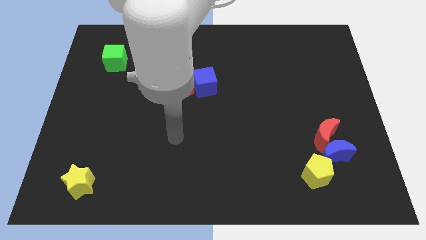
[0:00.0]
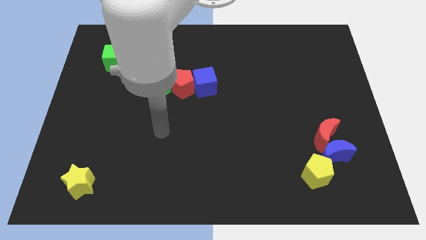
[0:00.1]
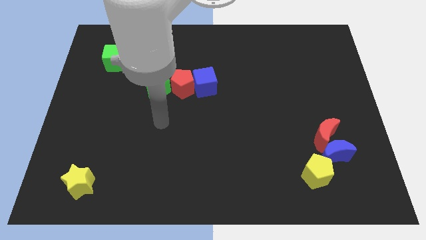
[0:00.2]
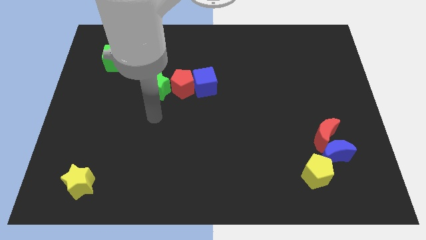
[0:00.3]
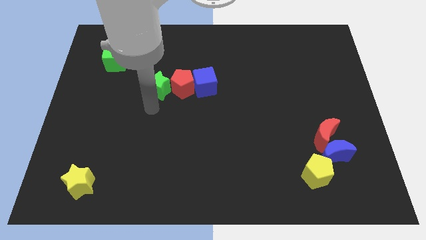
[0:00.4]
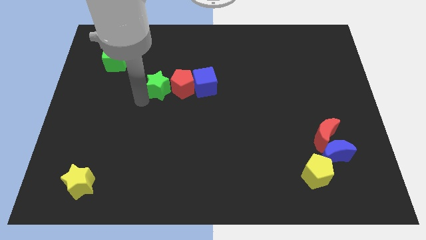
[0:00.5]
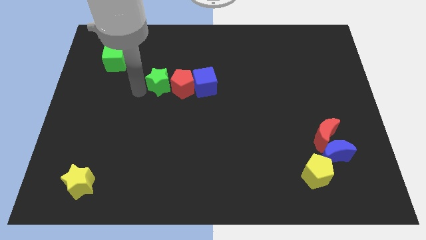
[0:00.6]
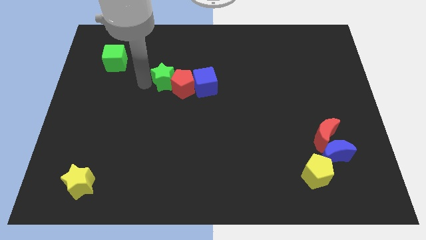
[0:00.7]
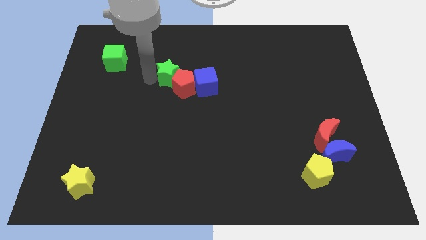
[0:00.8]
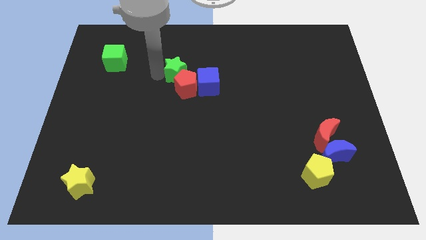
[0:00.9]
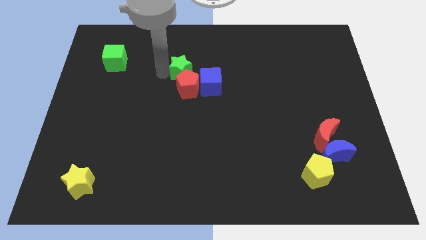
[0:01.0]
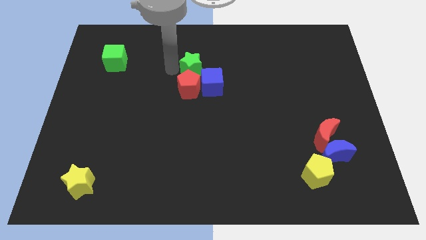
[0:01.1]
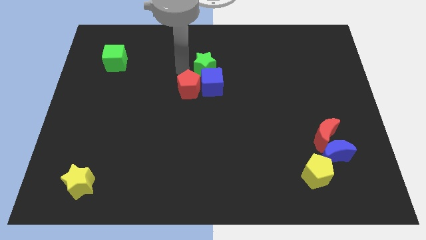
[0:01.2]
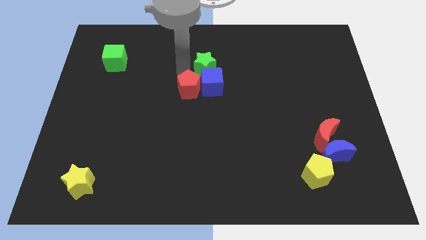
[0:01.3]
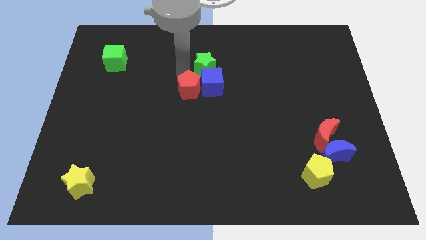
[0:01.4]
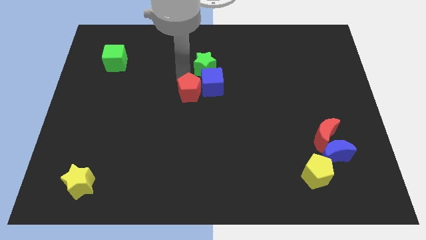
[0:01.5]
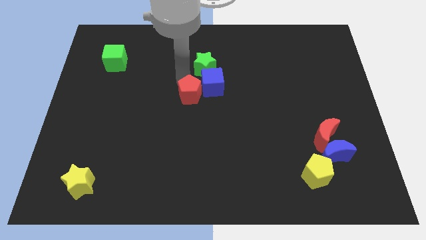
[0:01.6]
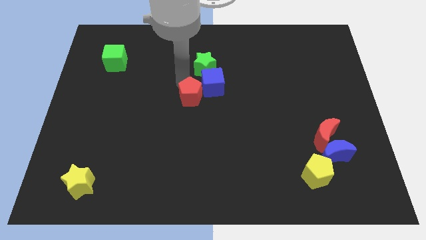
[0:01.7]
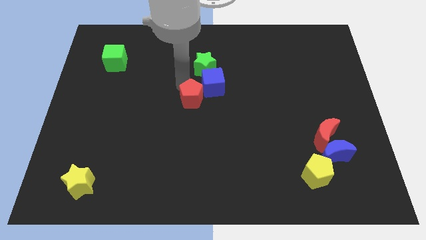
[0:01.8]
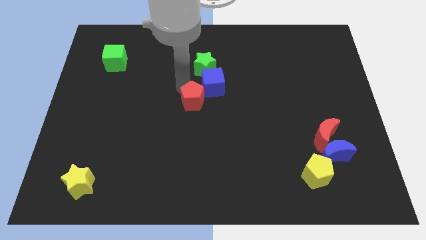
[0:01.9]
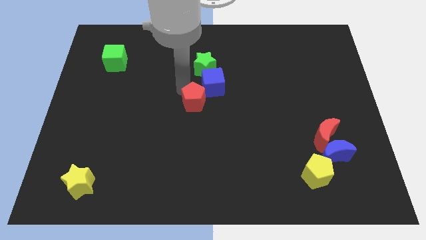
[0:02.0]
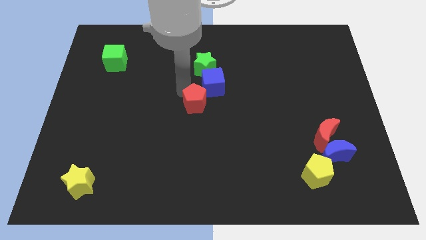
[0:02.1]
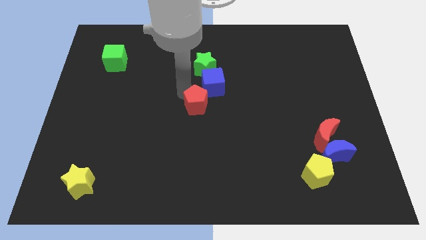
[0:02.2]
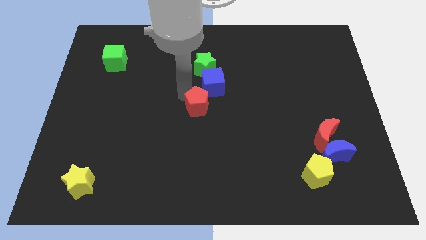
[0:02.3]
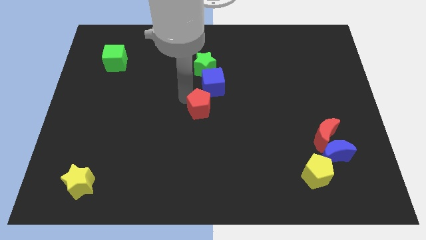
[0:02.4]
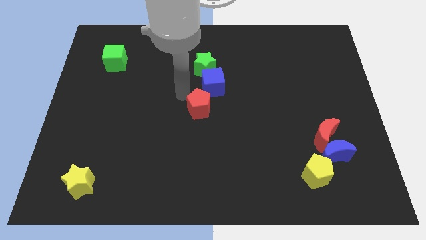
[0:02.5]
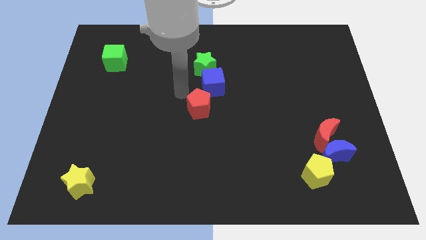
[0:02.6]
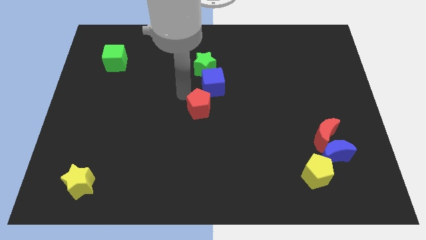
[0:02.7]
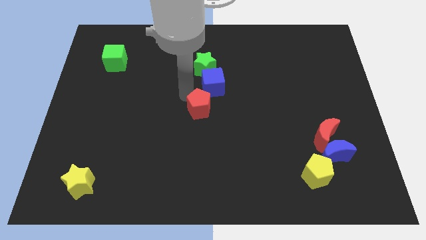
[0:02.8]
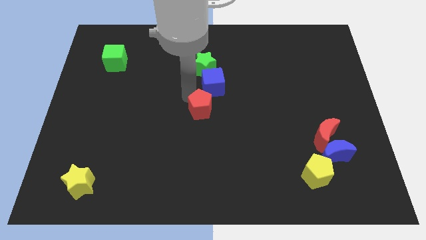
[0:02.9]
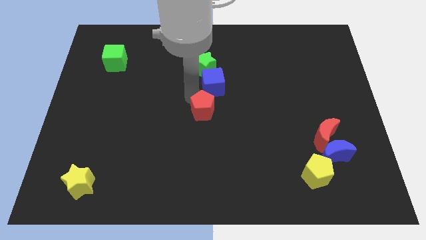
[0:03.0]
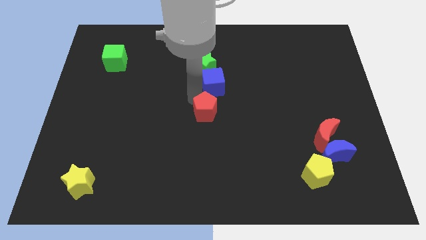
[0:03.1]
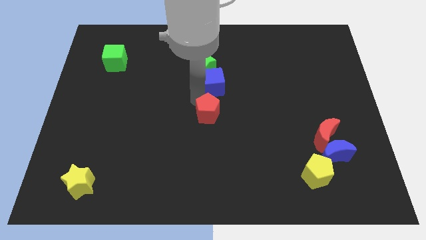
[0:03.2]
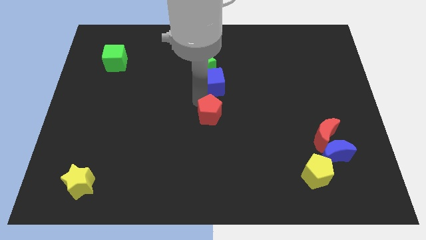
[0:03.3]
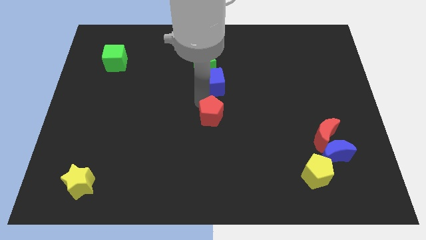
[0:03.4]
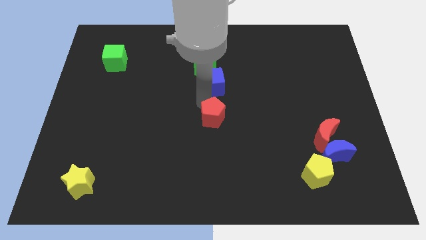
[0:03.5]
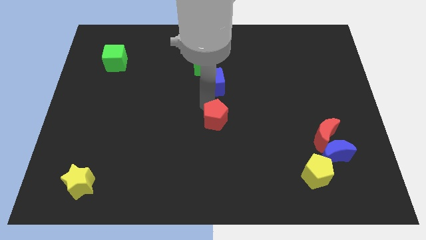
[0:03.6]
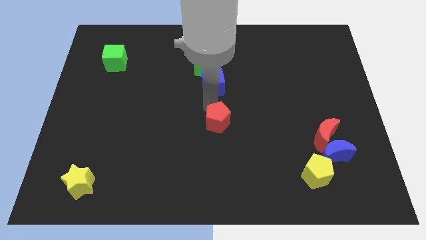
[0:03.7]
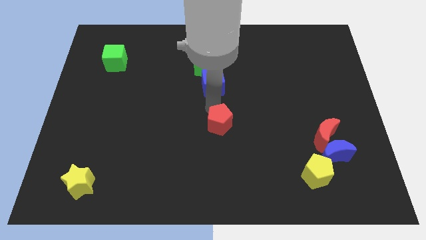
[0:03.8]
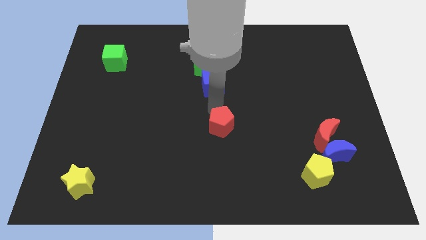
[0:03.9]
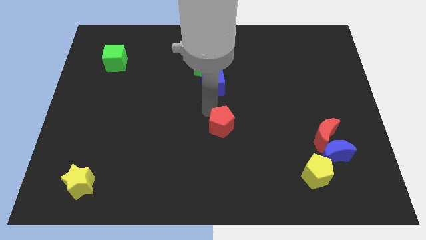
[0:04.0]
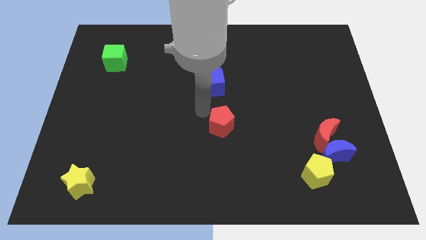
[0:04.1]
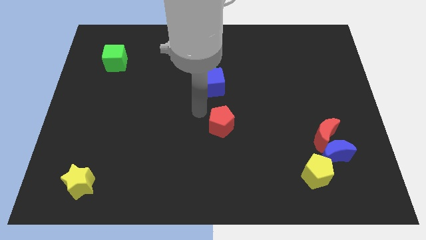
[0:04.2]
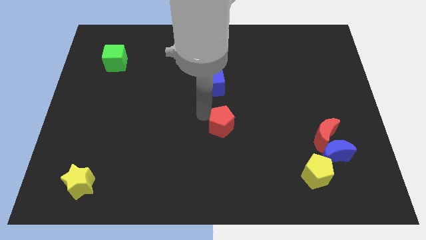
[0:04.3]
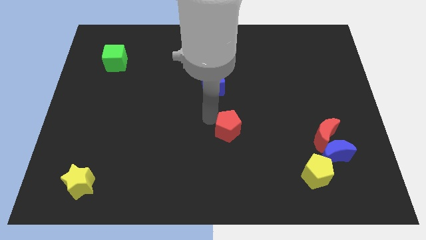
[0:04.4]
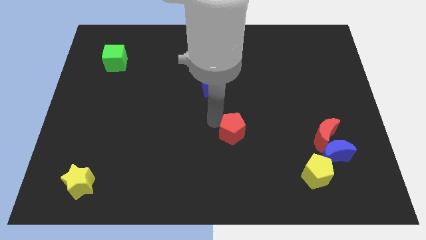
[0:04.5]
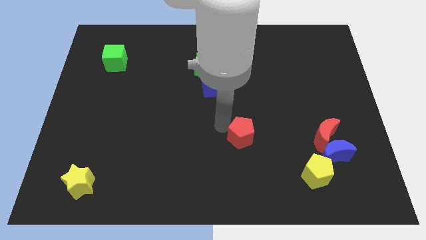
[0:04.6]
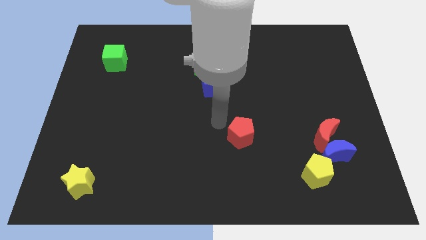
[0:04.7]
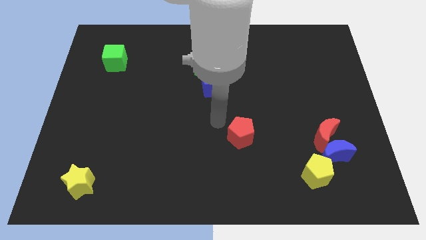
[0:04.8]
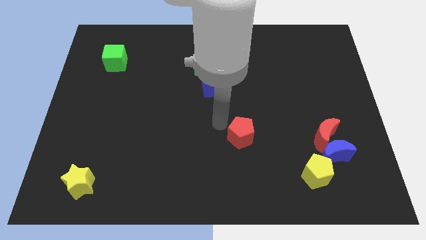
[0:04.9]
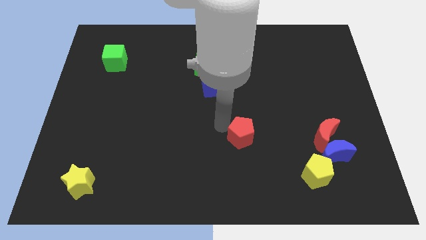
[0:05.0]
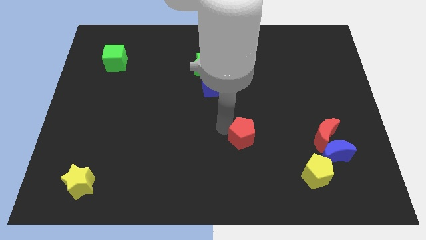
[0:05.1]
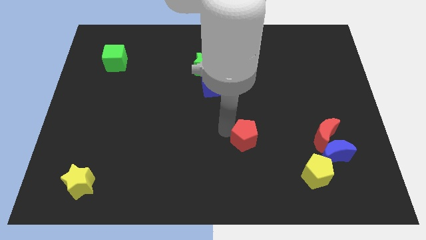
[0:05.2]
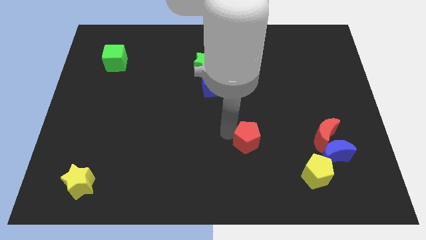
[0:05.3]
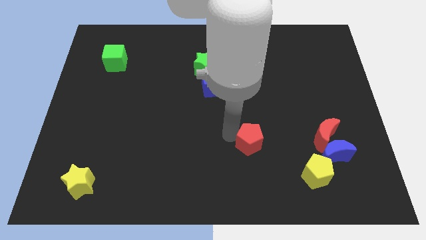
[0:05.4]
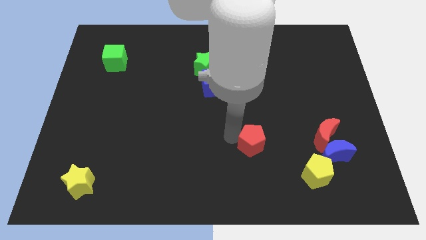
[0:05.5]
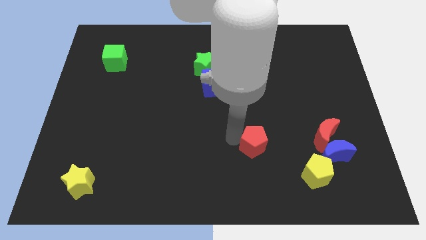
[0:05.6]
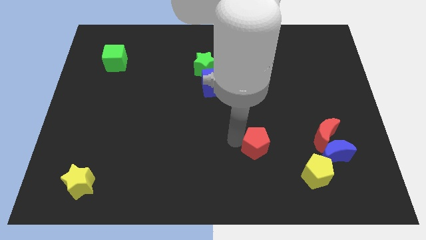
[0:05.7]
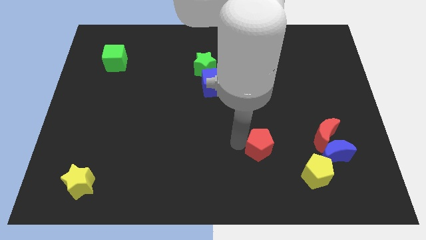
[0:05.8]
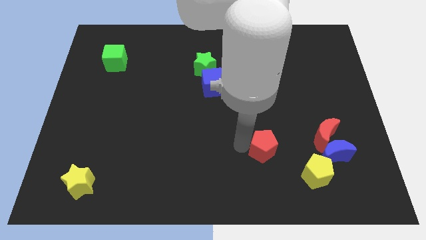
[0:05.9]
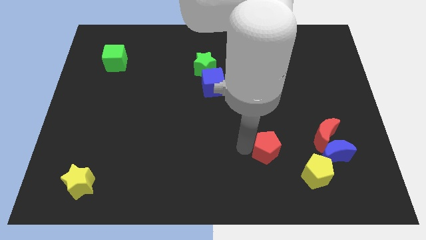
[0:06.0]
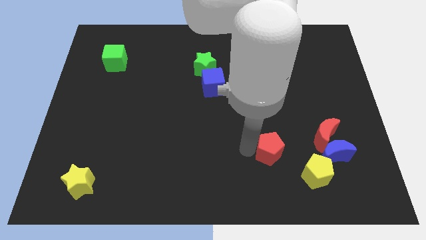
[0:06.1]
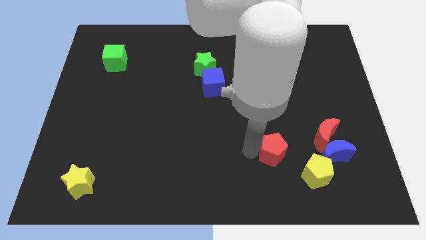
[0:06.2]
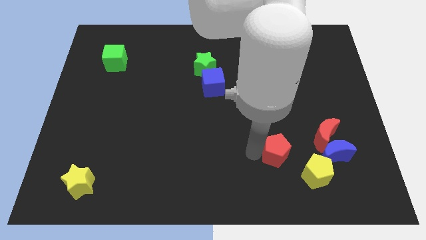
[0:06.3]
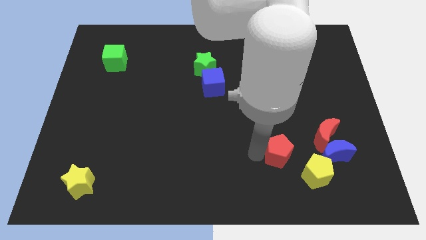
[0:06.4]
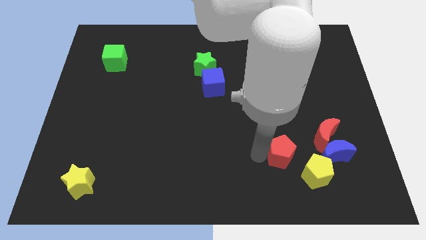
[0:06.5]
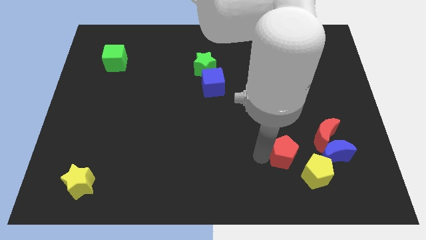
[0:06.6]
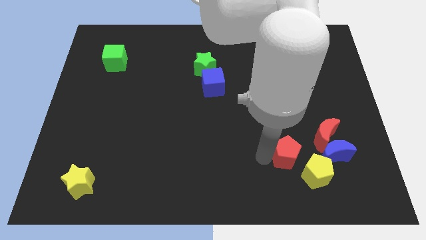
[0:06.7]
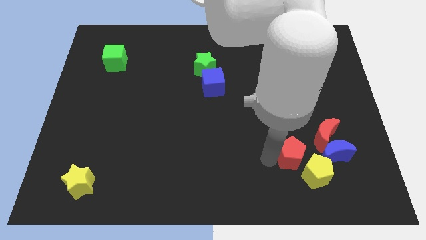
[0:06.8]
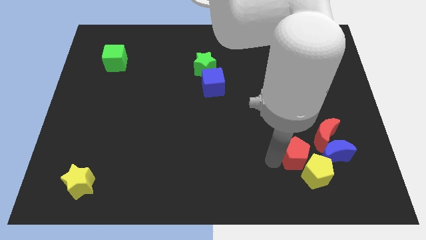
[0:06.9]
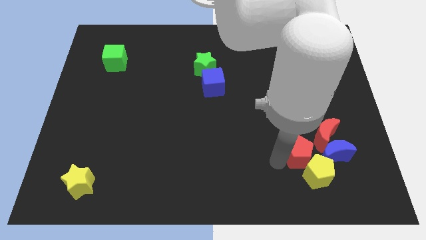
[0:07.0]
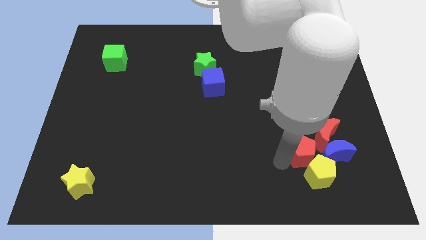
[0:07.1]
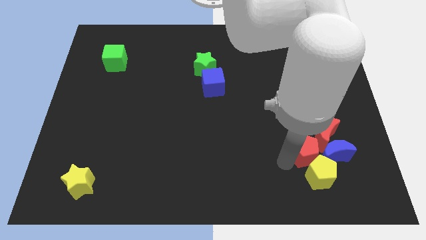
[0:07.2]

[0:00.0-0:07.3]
slide the red pentagon next to the blue moon

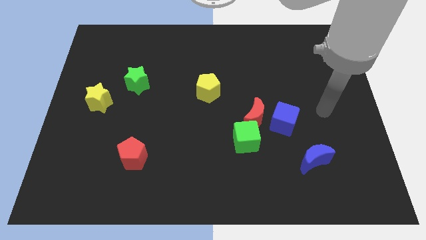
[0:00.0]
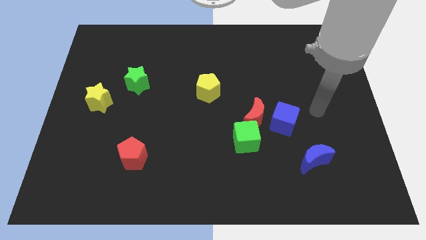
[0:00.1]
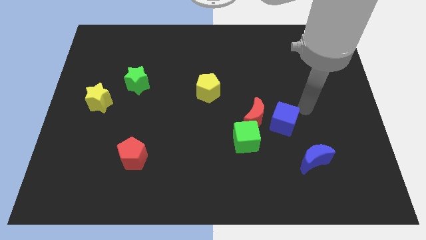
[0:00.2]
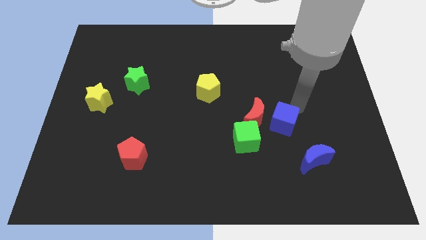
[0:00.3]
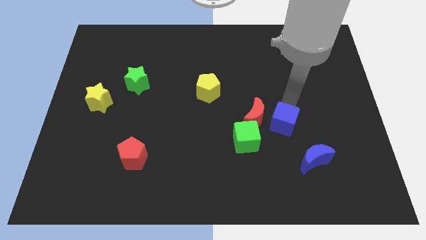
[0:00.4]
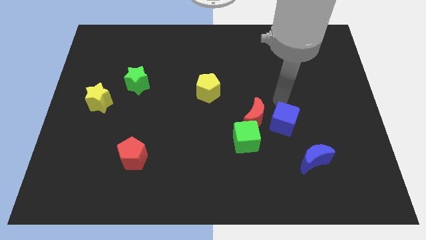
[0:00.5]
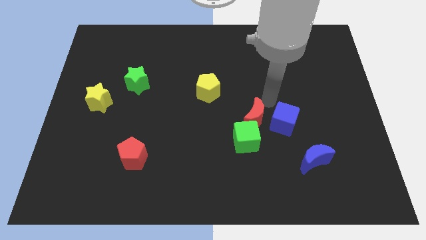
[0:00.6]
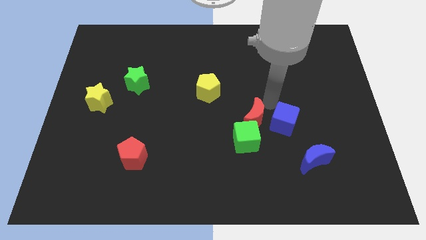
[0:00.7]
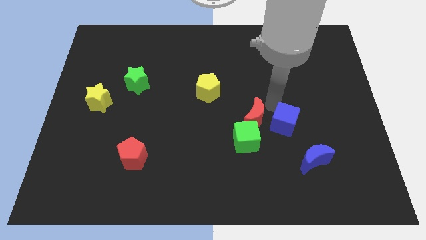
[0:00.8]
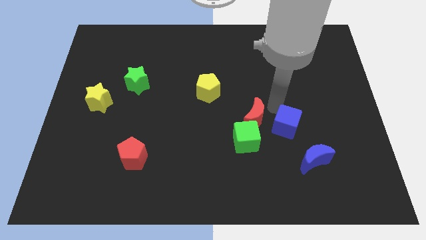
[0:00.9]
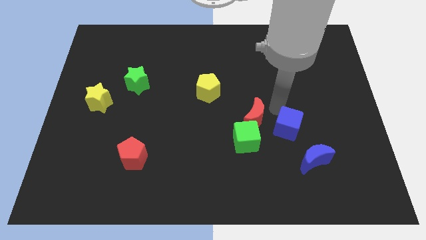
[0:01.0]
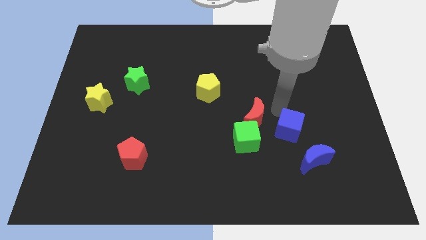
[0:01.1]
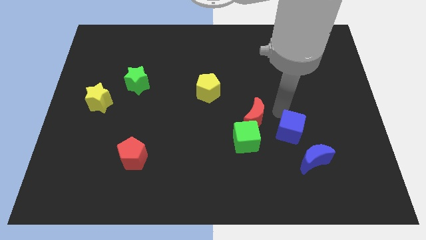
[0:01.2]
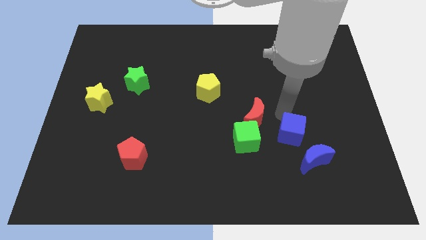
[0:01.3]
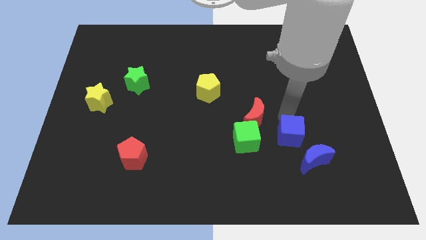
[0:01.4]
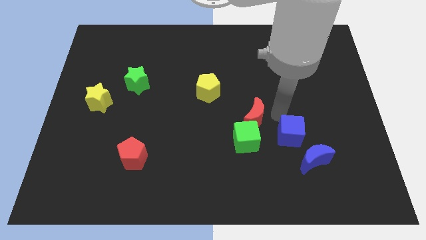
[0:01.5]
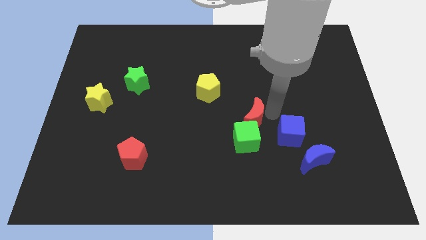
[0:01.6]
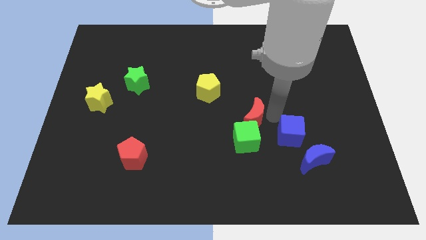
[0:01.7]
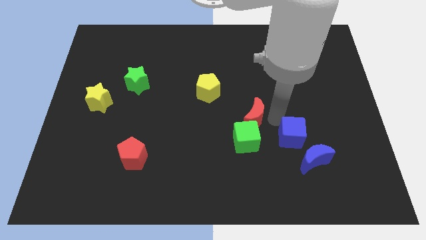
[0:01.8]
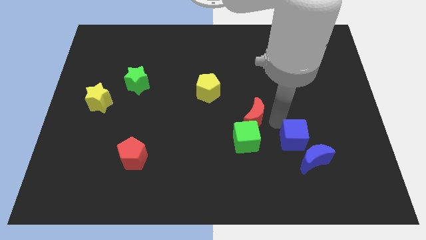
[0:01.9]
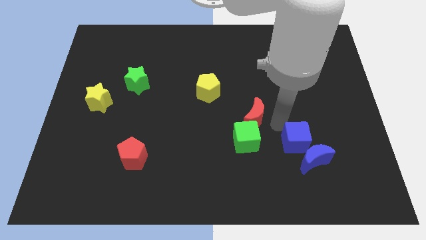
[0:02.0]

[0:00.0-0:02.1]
put the blue cube next to the blue moon
